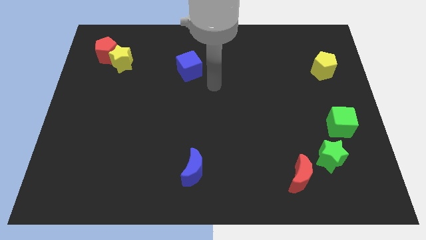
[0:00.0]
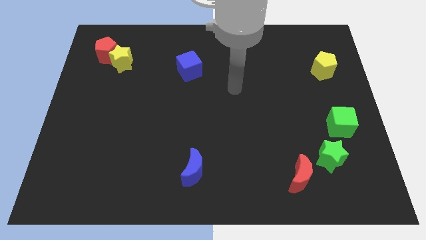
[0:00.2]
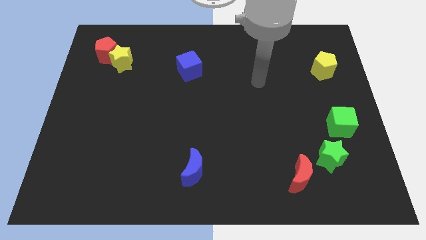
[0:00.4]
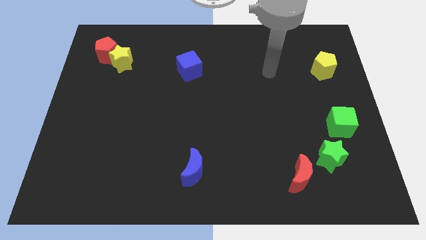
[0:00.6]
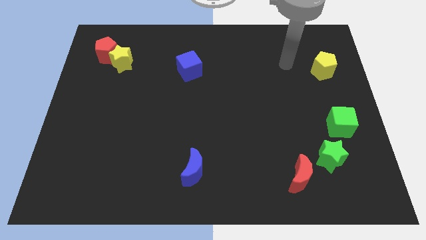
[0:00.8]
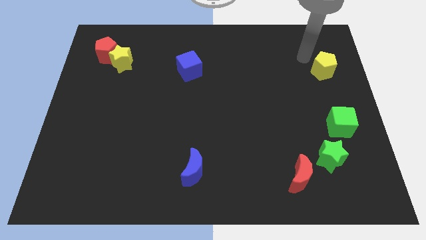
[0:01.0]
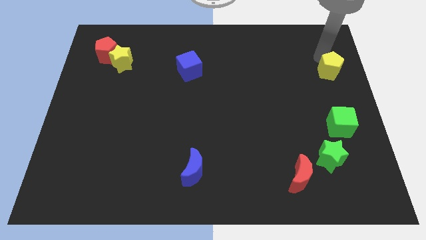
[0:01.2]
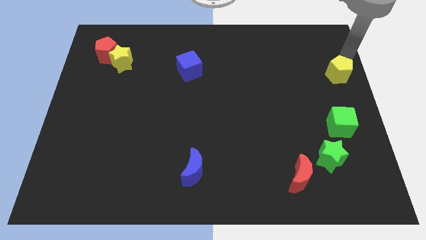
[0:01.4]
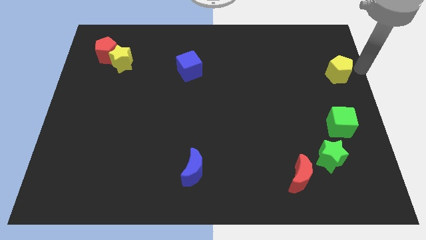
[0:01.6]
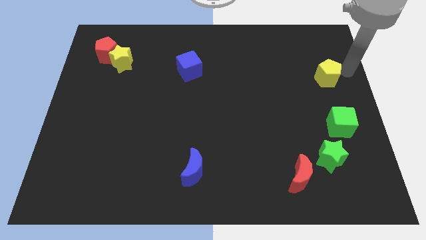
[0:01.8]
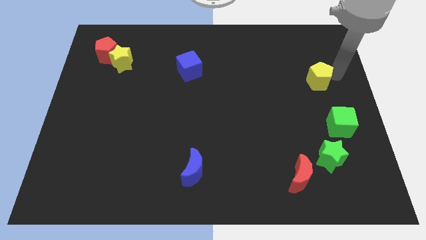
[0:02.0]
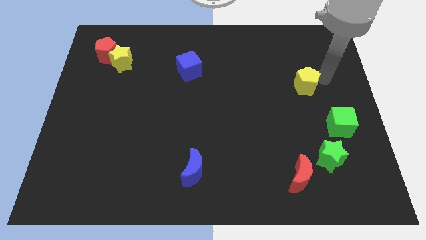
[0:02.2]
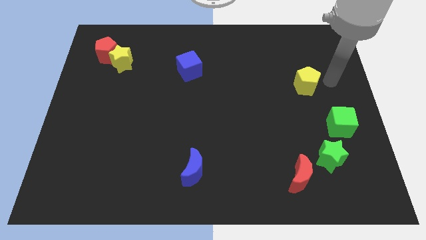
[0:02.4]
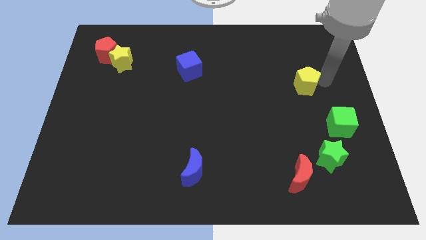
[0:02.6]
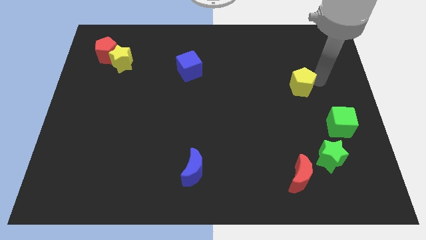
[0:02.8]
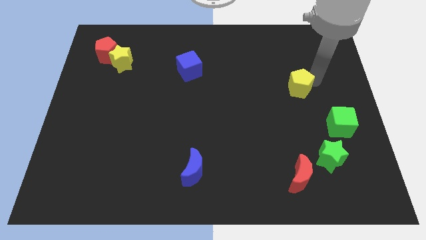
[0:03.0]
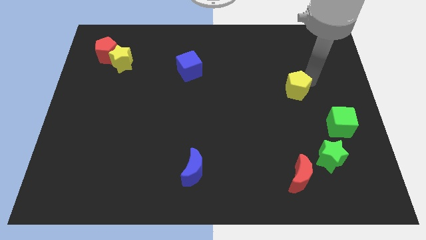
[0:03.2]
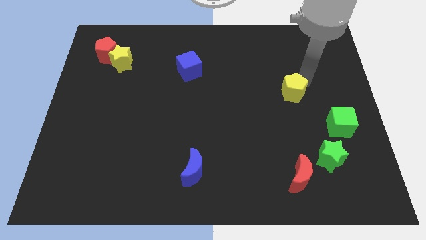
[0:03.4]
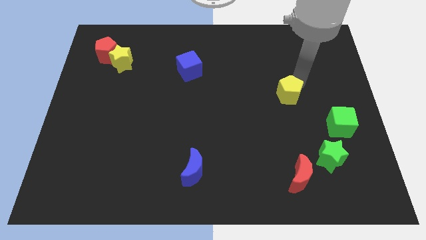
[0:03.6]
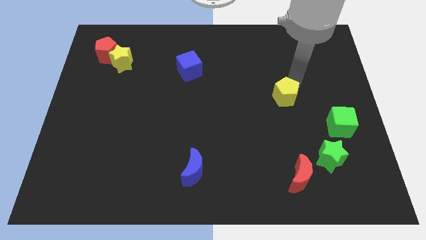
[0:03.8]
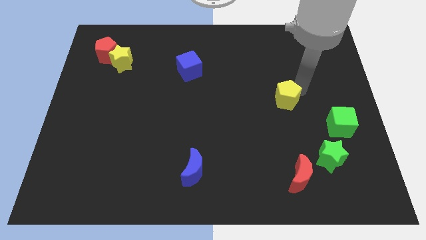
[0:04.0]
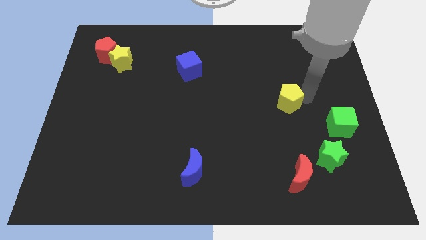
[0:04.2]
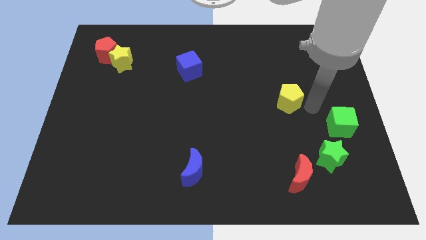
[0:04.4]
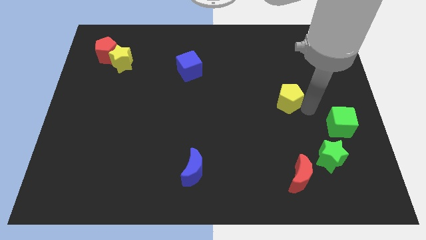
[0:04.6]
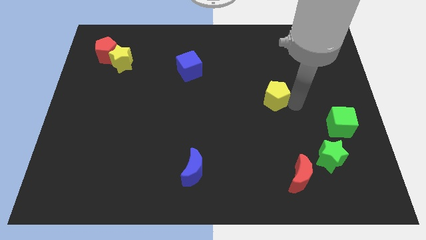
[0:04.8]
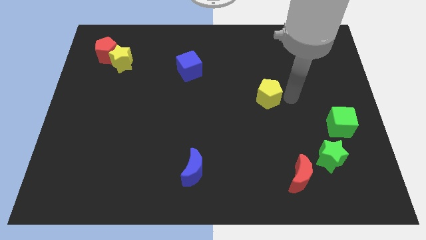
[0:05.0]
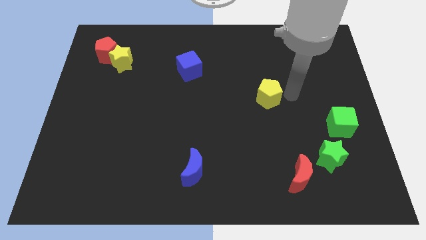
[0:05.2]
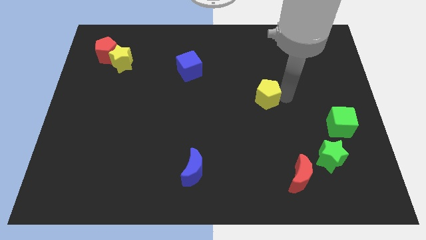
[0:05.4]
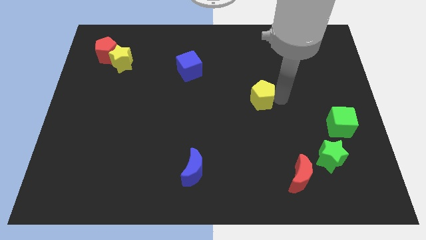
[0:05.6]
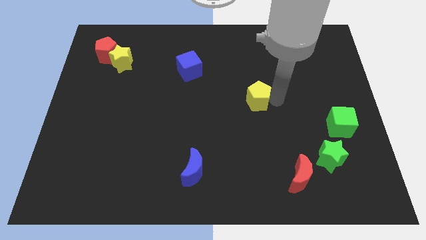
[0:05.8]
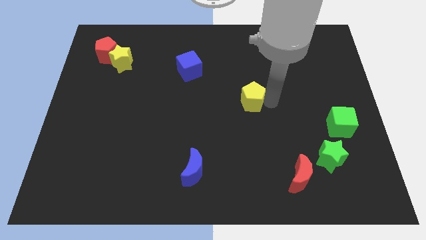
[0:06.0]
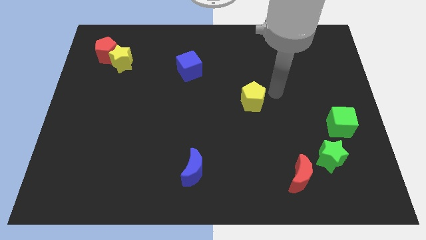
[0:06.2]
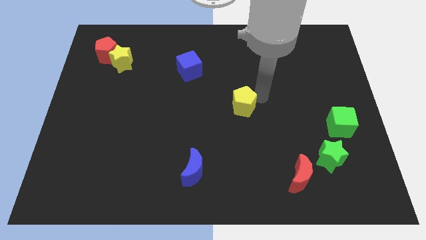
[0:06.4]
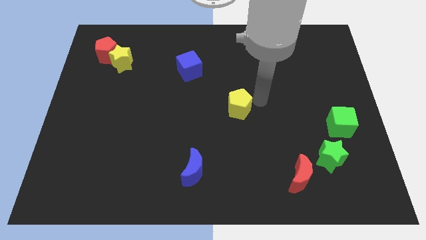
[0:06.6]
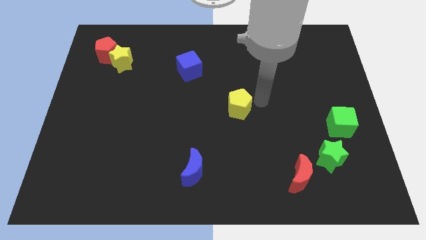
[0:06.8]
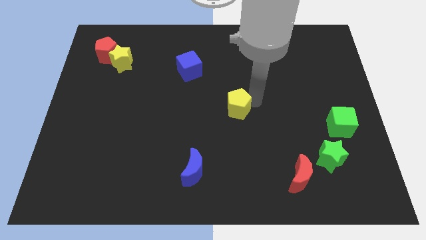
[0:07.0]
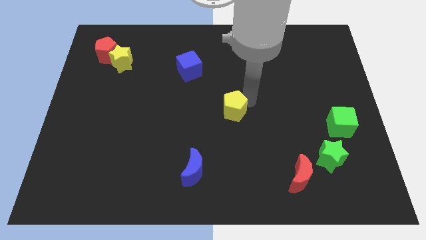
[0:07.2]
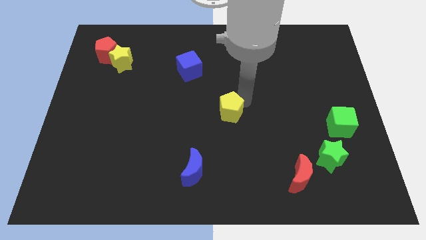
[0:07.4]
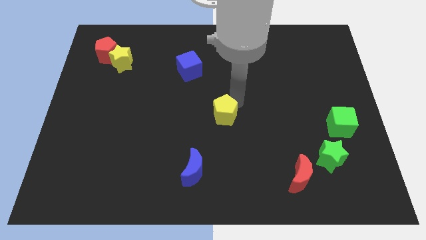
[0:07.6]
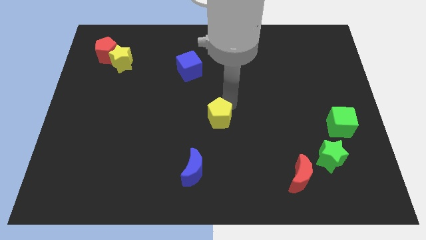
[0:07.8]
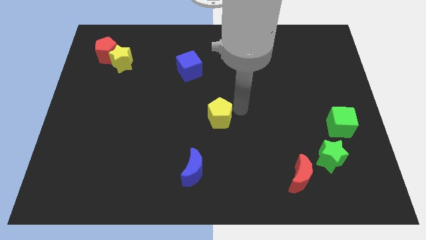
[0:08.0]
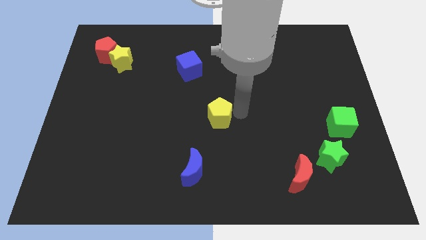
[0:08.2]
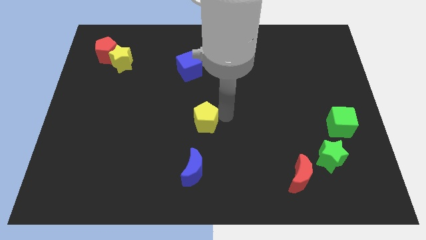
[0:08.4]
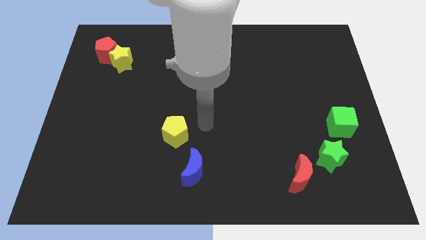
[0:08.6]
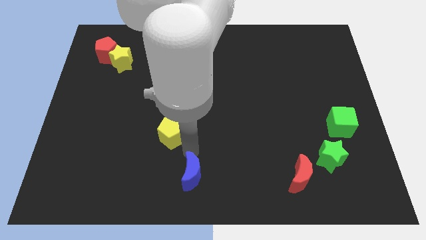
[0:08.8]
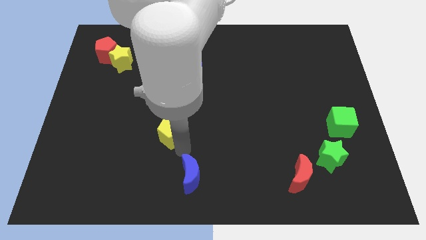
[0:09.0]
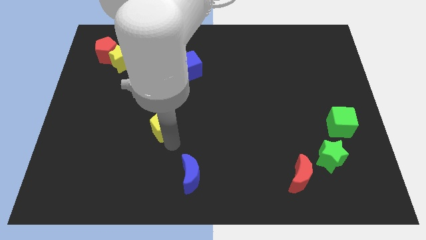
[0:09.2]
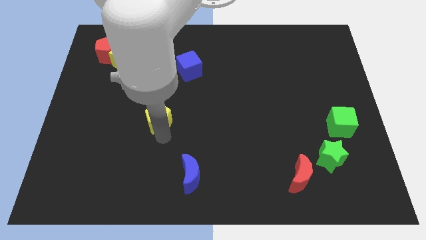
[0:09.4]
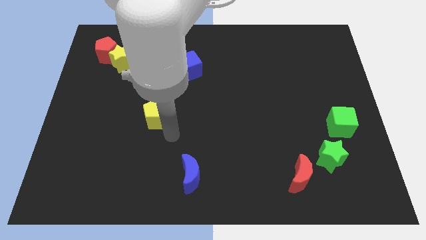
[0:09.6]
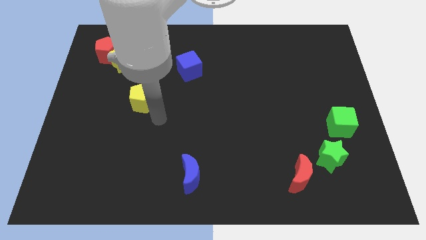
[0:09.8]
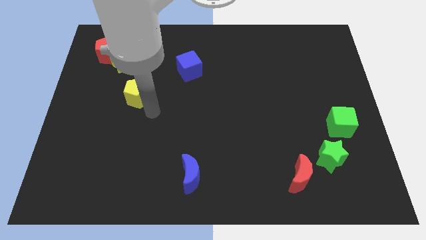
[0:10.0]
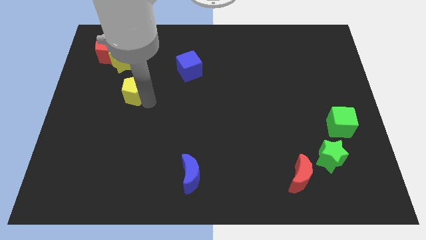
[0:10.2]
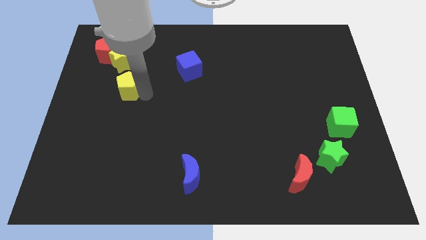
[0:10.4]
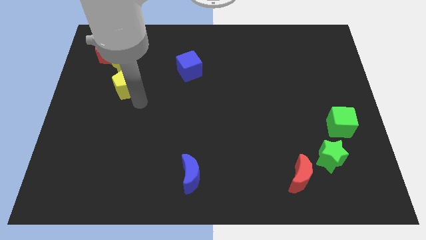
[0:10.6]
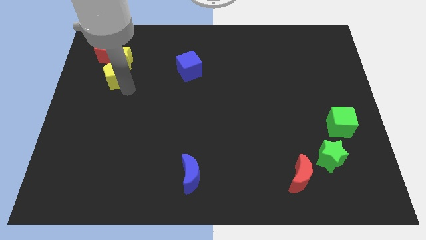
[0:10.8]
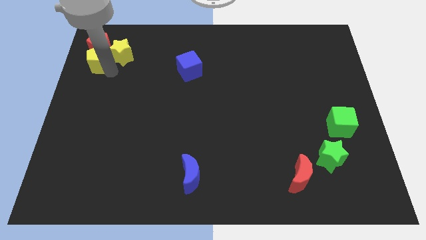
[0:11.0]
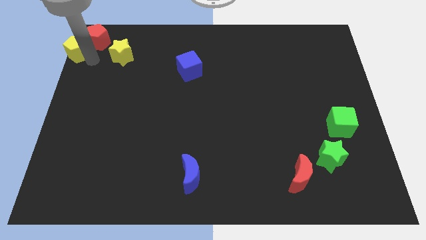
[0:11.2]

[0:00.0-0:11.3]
push the yellow pentagon to the top left

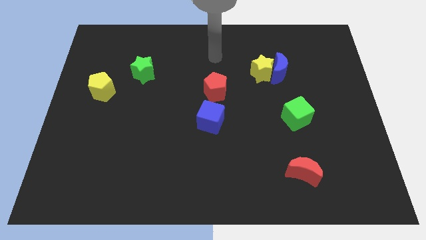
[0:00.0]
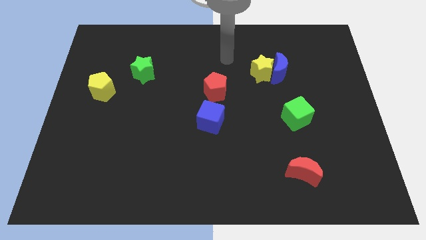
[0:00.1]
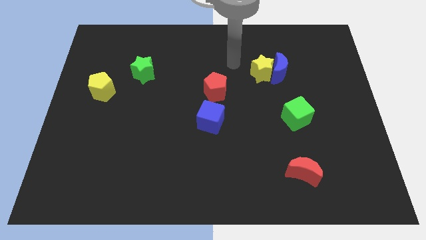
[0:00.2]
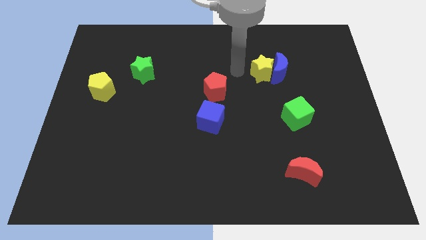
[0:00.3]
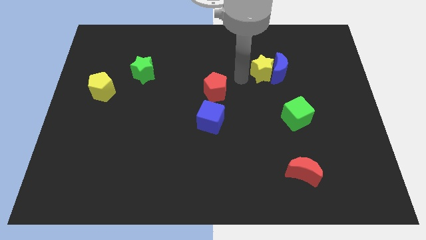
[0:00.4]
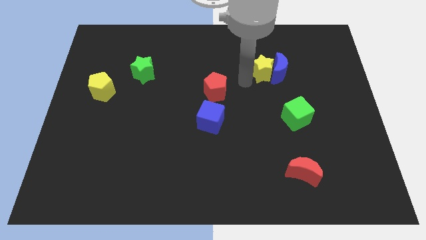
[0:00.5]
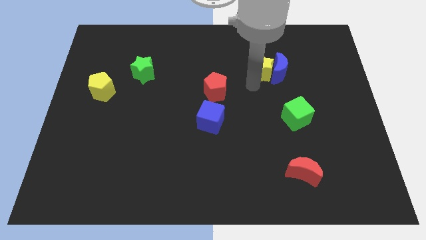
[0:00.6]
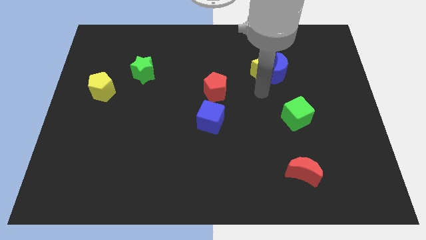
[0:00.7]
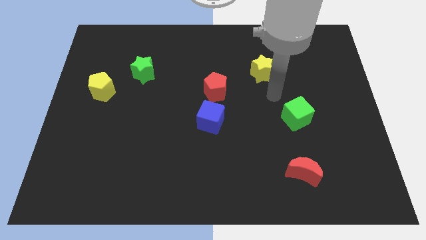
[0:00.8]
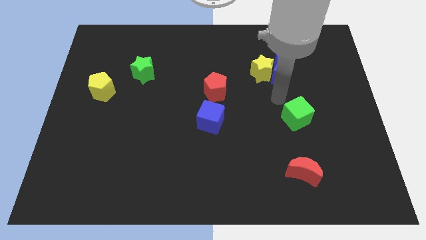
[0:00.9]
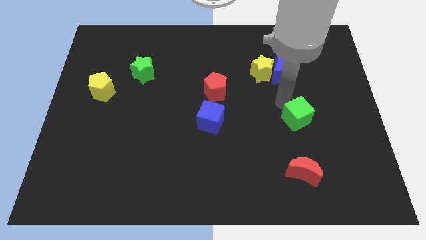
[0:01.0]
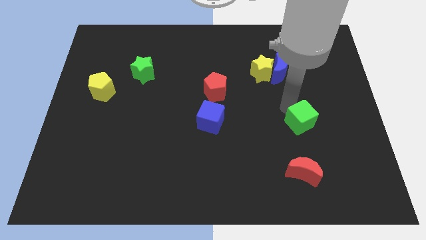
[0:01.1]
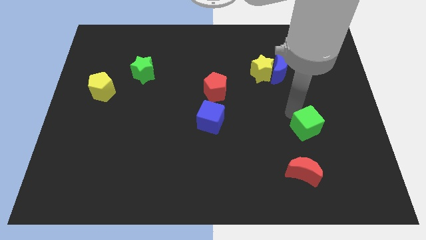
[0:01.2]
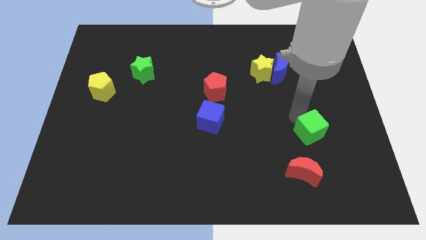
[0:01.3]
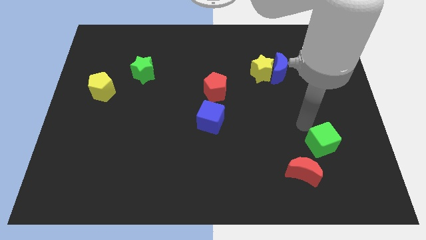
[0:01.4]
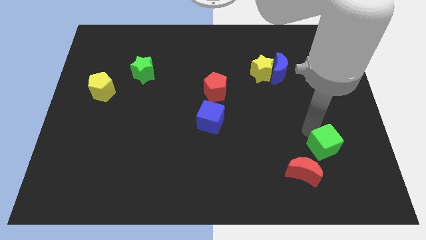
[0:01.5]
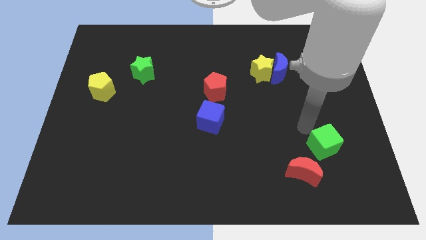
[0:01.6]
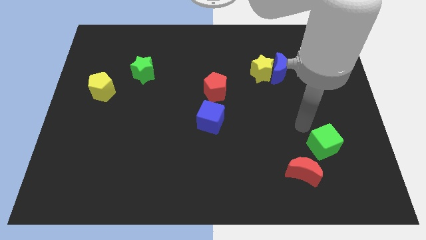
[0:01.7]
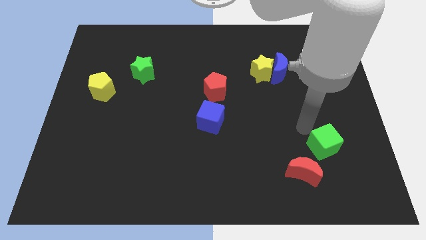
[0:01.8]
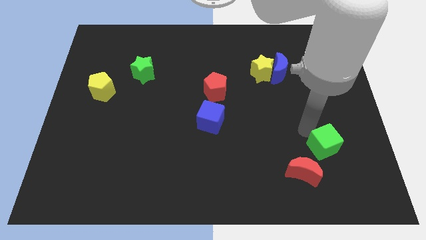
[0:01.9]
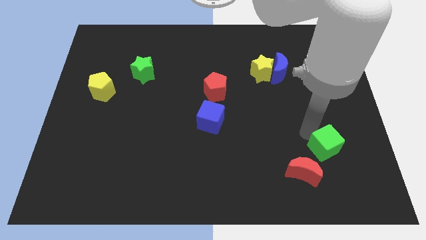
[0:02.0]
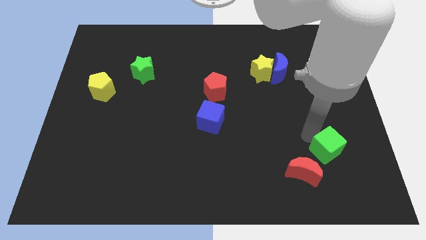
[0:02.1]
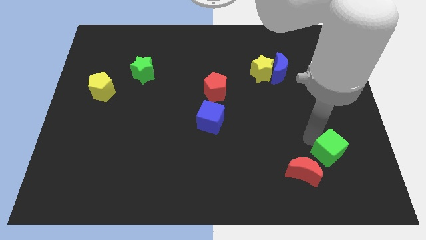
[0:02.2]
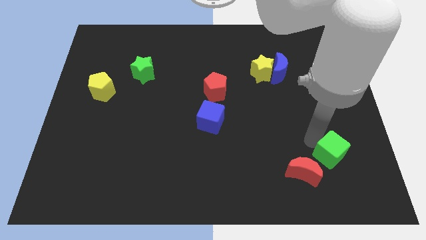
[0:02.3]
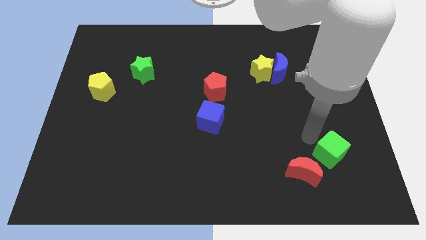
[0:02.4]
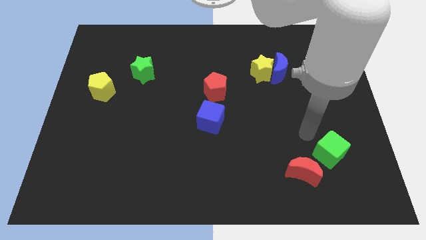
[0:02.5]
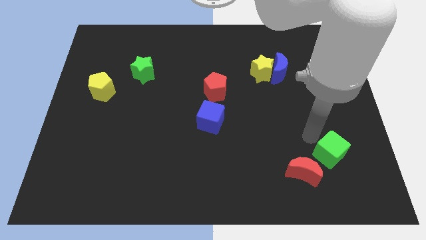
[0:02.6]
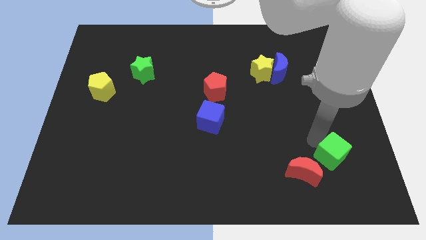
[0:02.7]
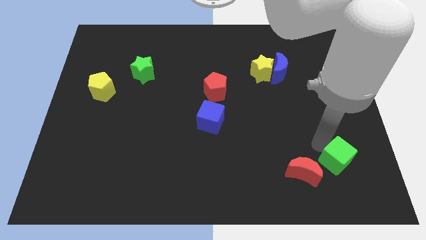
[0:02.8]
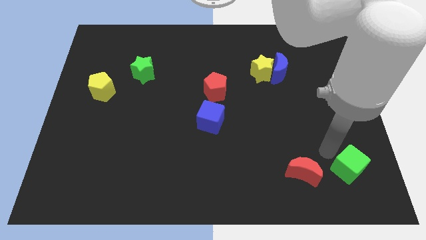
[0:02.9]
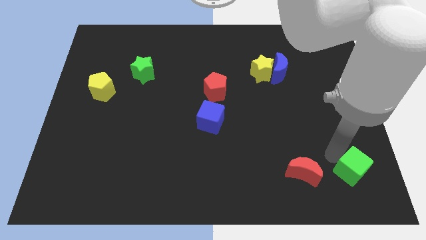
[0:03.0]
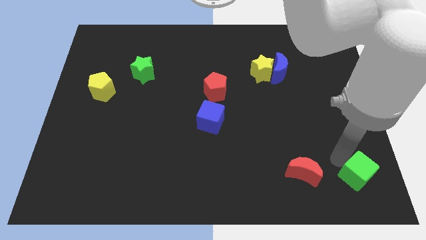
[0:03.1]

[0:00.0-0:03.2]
push the green cube to the bottom right
